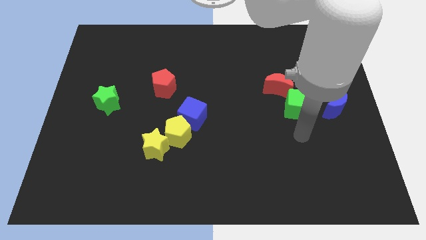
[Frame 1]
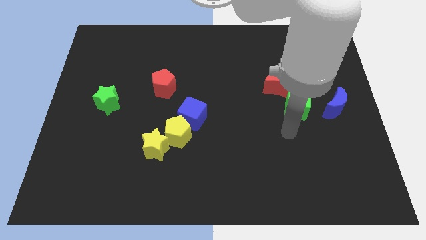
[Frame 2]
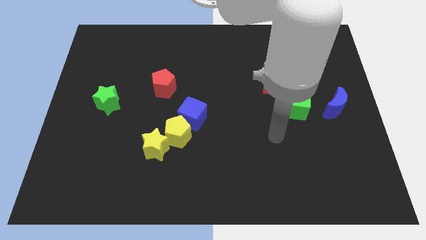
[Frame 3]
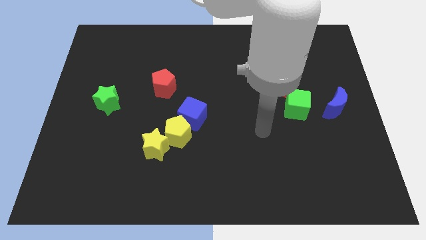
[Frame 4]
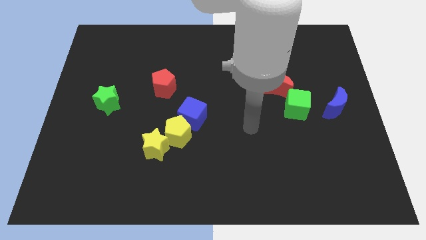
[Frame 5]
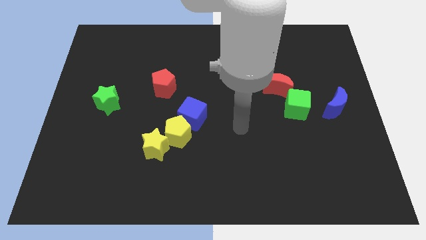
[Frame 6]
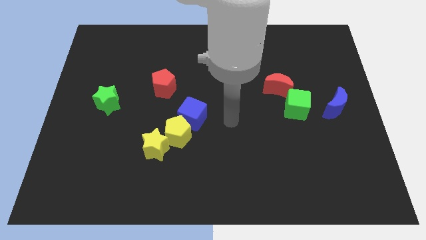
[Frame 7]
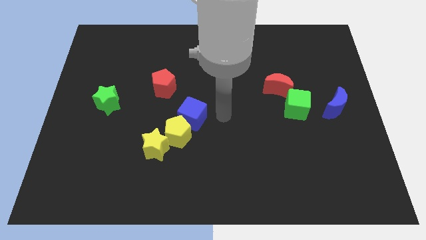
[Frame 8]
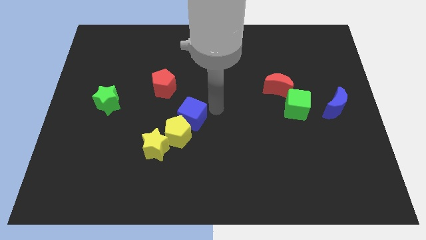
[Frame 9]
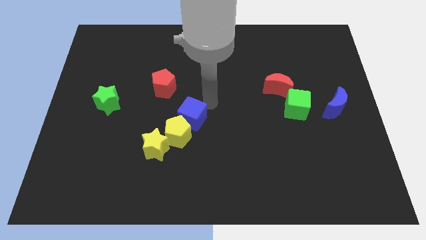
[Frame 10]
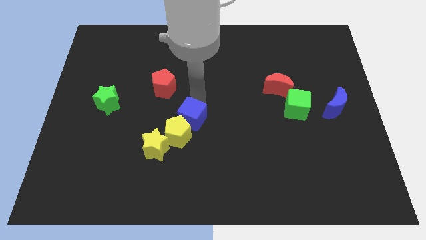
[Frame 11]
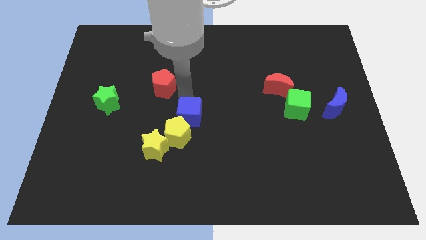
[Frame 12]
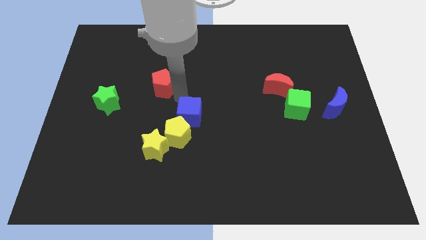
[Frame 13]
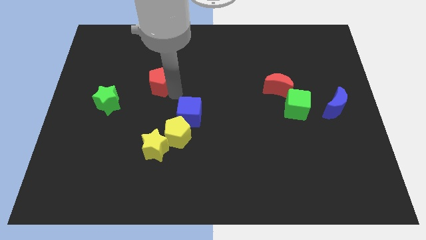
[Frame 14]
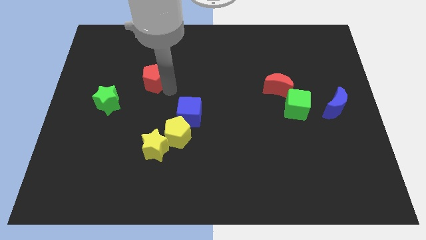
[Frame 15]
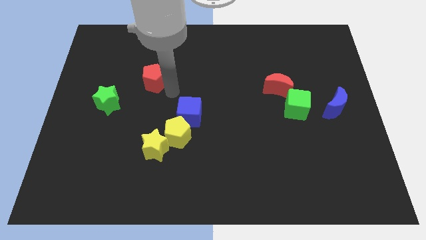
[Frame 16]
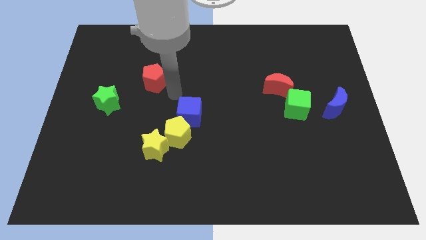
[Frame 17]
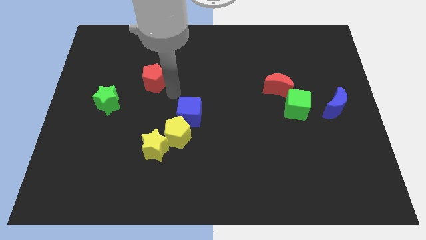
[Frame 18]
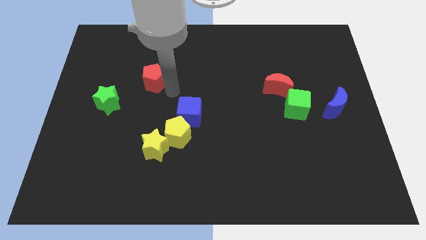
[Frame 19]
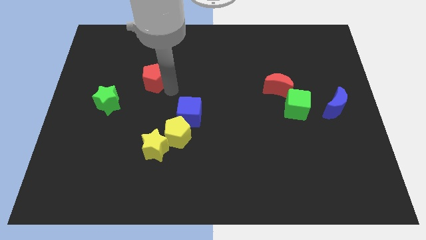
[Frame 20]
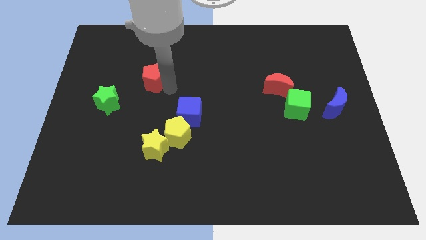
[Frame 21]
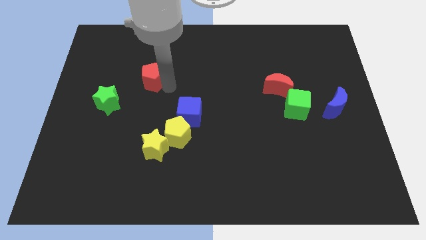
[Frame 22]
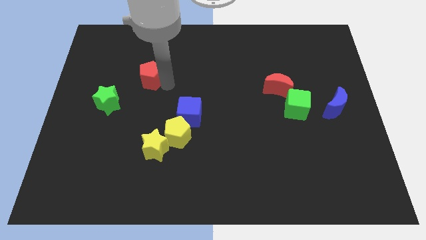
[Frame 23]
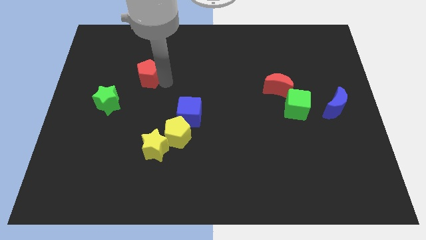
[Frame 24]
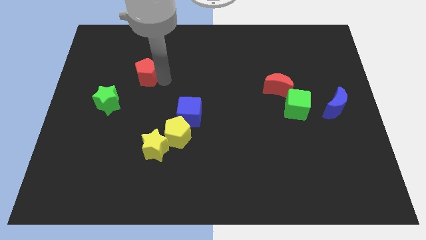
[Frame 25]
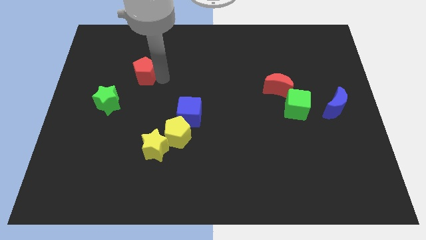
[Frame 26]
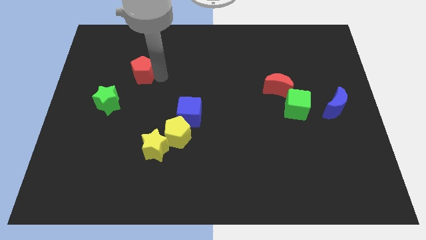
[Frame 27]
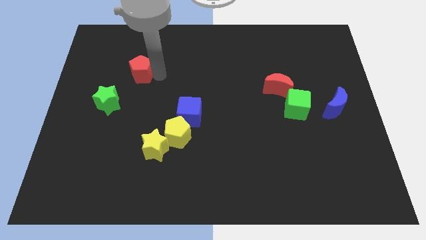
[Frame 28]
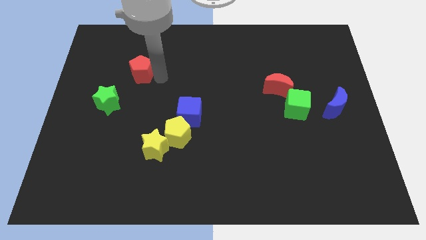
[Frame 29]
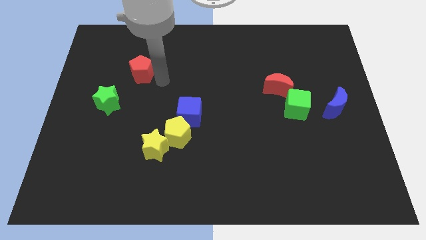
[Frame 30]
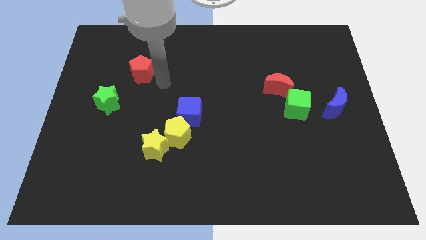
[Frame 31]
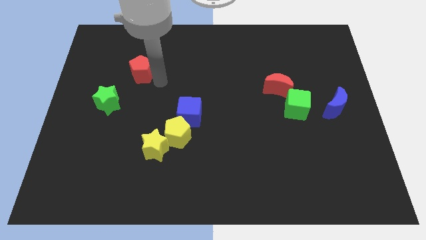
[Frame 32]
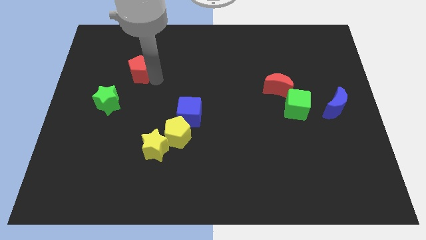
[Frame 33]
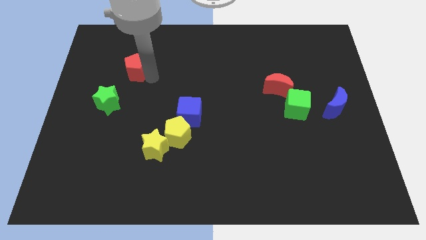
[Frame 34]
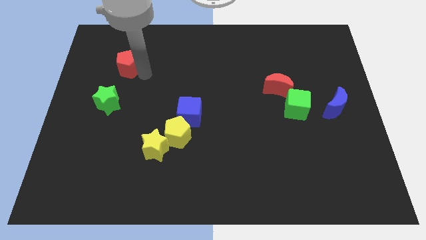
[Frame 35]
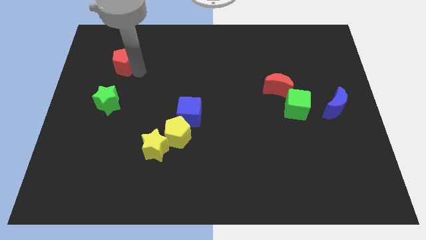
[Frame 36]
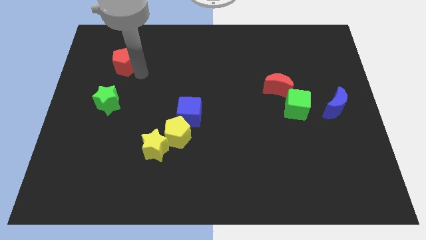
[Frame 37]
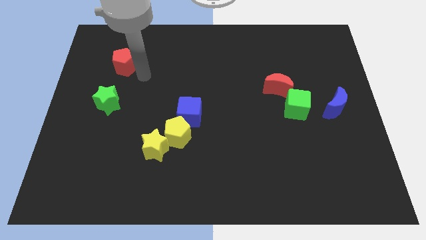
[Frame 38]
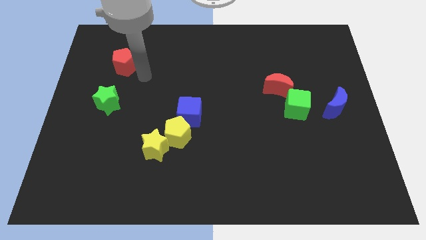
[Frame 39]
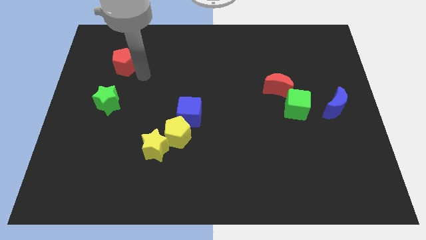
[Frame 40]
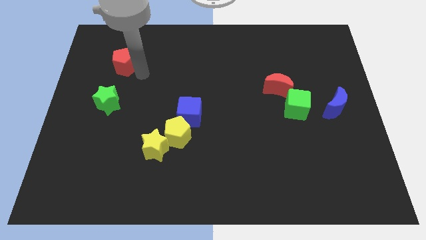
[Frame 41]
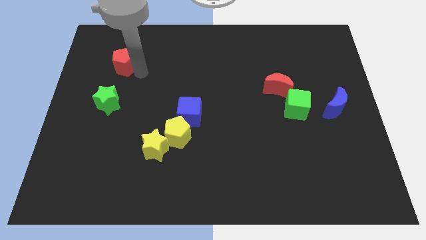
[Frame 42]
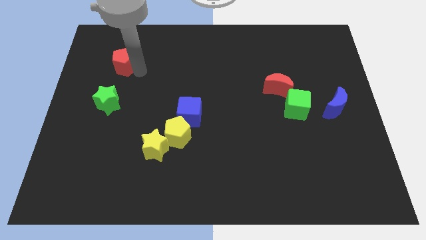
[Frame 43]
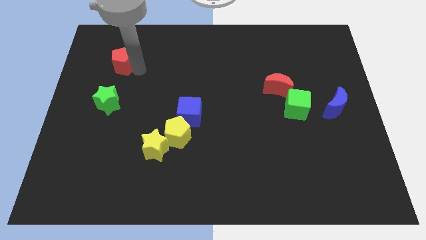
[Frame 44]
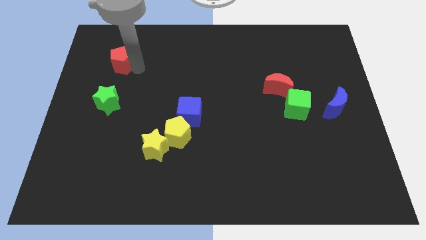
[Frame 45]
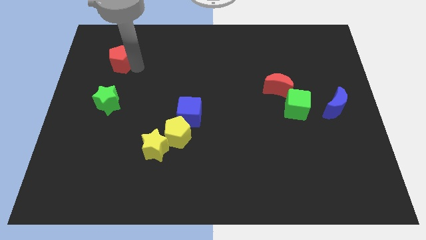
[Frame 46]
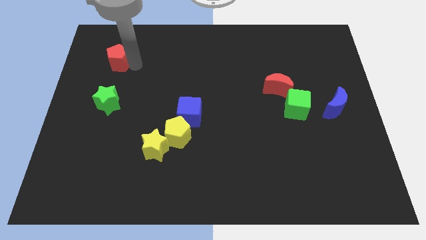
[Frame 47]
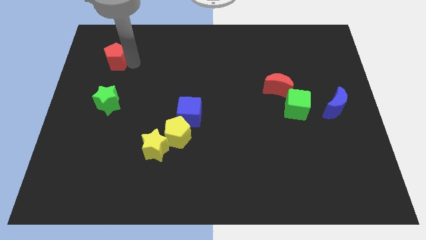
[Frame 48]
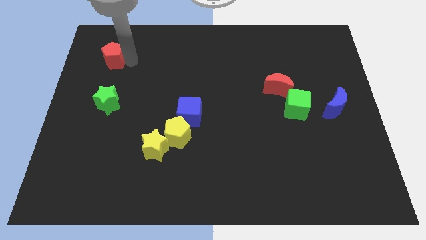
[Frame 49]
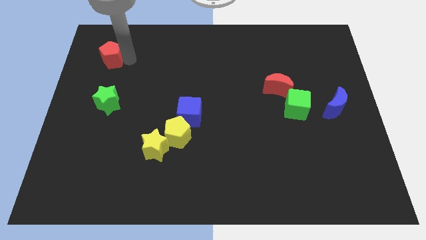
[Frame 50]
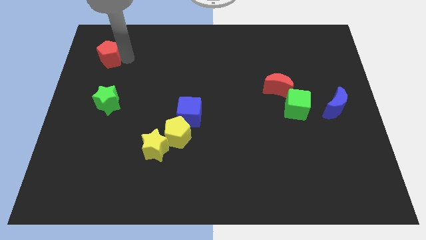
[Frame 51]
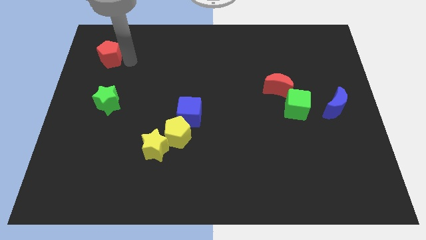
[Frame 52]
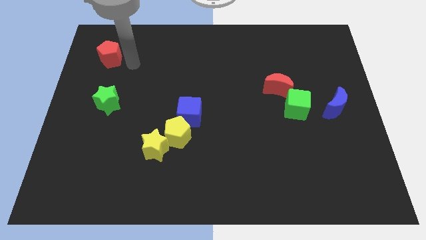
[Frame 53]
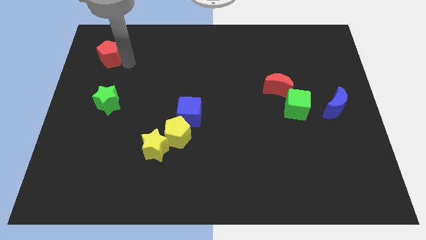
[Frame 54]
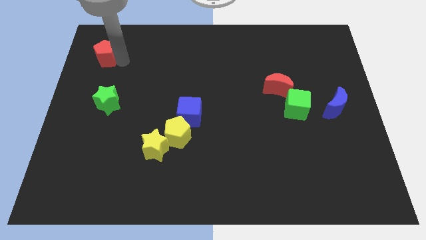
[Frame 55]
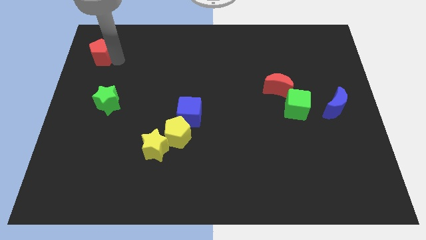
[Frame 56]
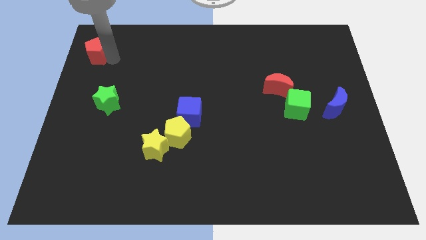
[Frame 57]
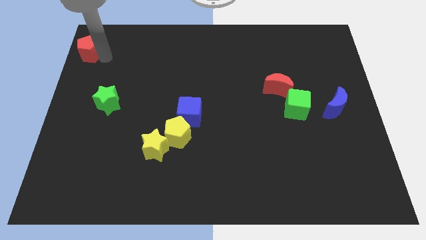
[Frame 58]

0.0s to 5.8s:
put the red pentagon to the top left of the board
